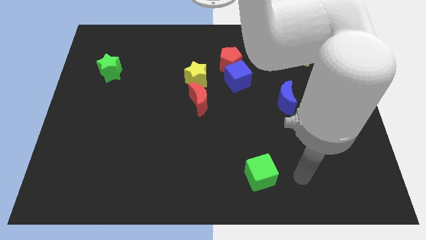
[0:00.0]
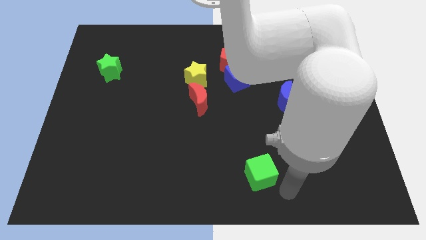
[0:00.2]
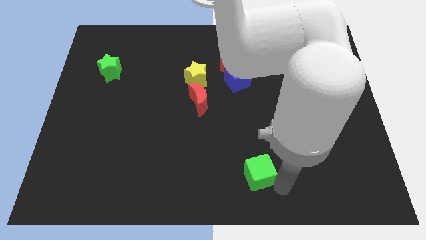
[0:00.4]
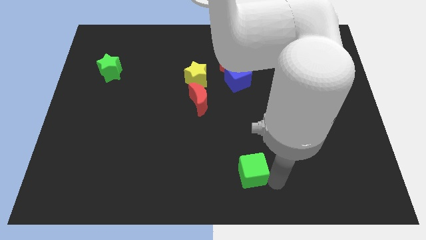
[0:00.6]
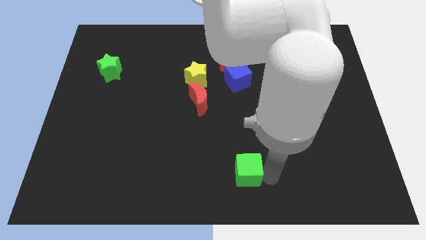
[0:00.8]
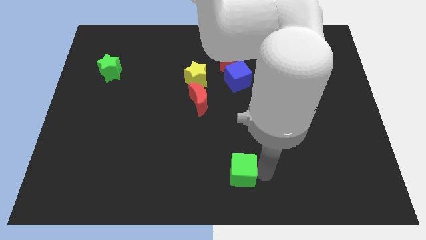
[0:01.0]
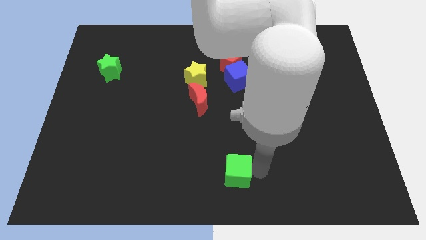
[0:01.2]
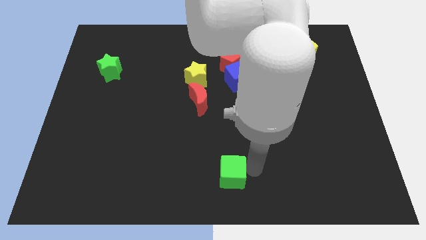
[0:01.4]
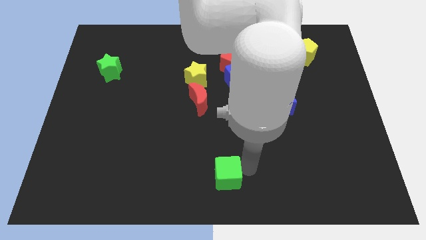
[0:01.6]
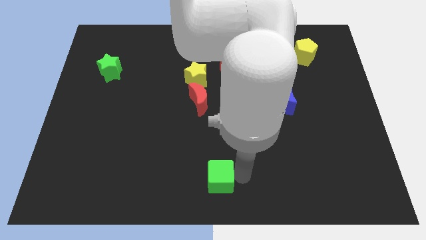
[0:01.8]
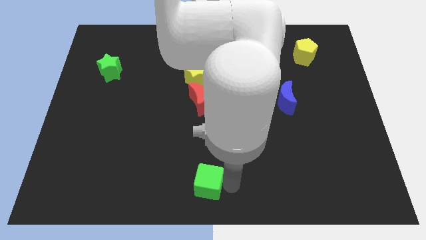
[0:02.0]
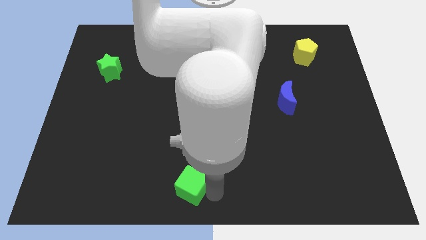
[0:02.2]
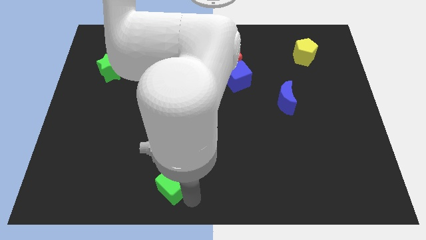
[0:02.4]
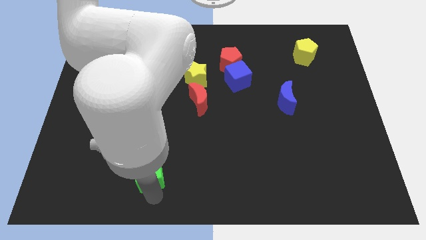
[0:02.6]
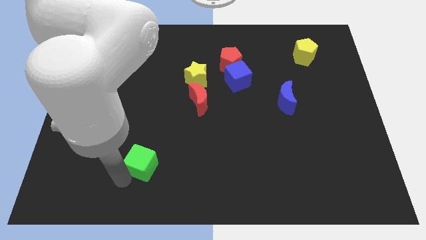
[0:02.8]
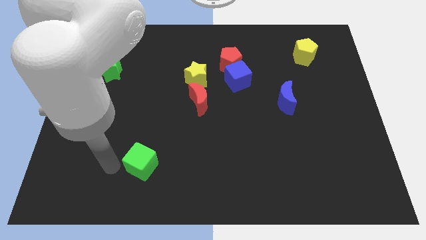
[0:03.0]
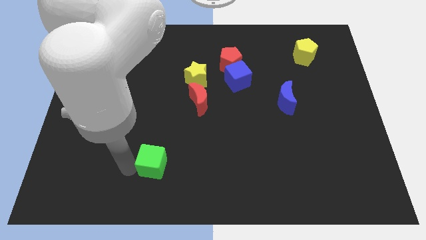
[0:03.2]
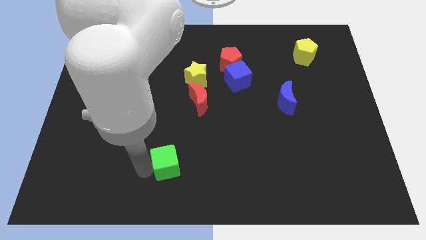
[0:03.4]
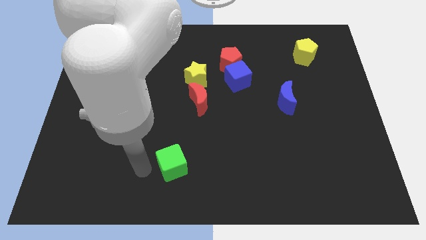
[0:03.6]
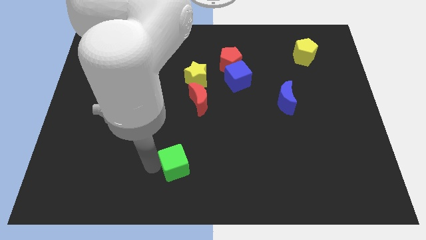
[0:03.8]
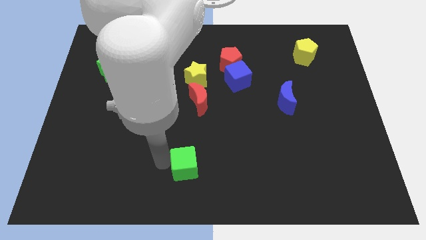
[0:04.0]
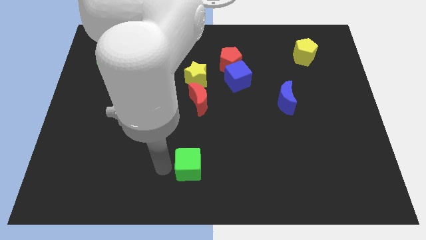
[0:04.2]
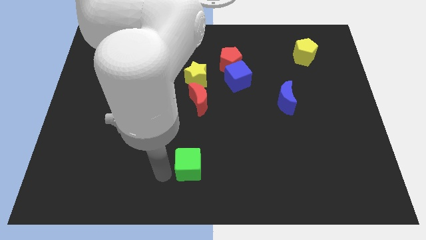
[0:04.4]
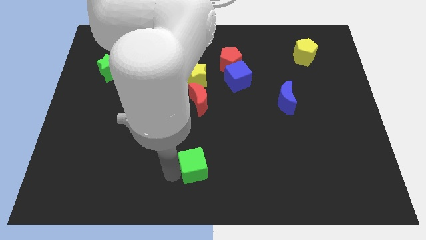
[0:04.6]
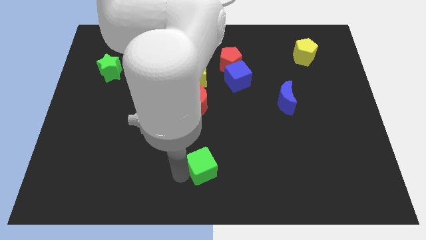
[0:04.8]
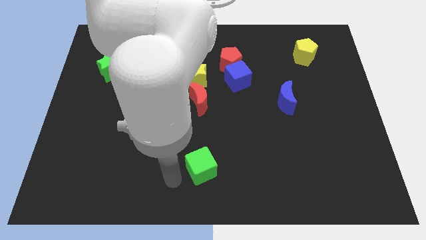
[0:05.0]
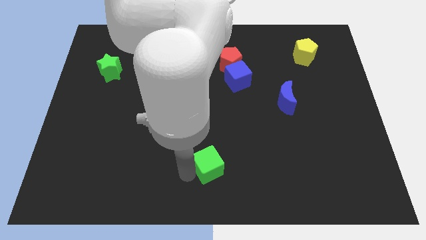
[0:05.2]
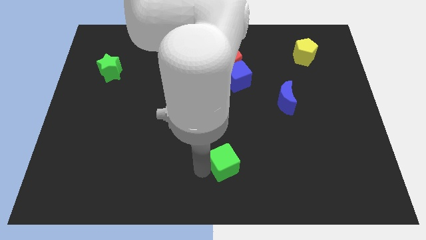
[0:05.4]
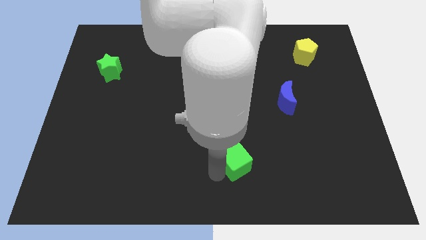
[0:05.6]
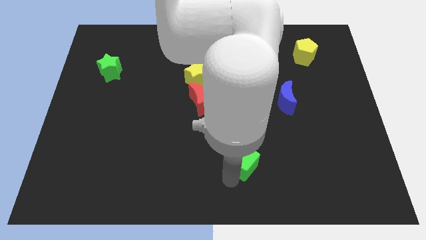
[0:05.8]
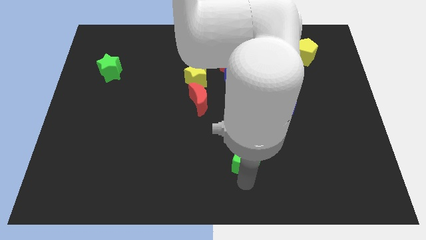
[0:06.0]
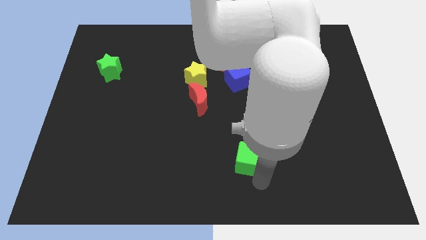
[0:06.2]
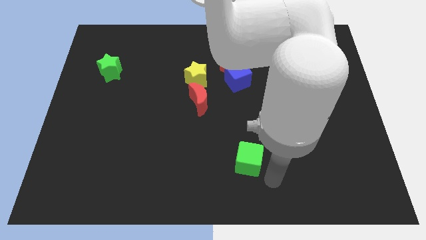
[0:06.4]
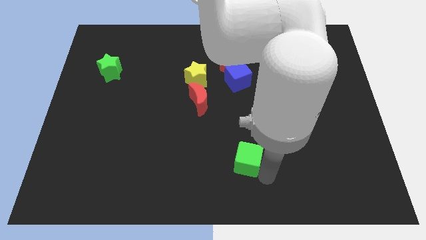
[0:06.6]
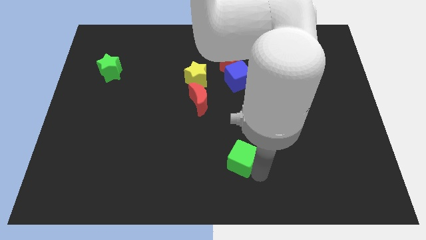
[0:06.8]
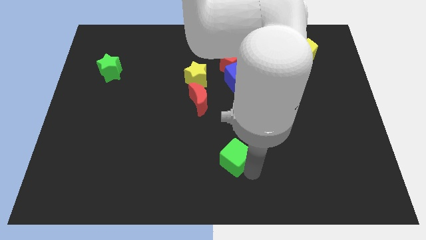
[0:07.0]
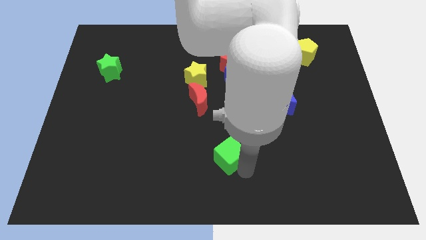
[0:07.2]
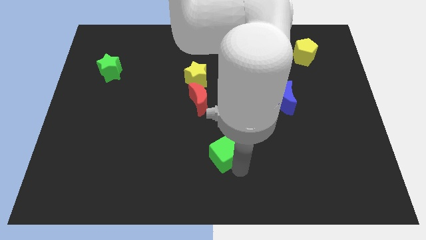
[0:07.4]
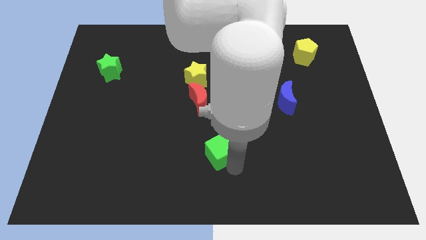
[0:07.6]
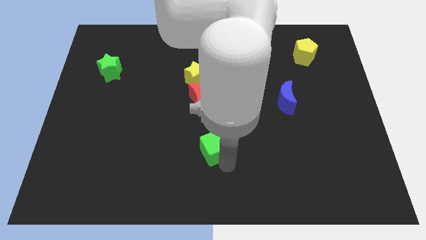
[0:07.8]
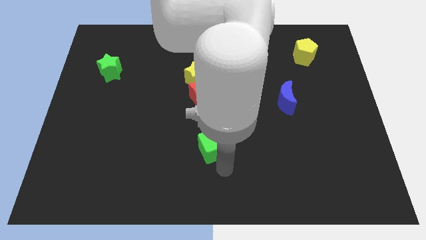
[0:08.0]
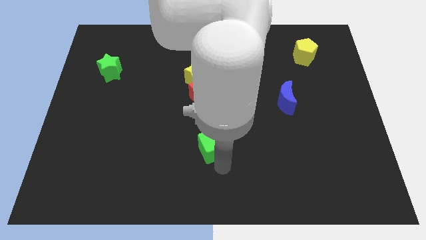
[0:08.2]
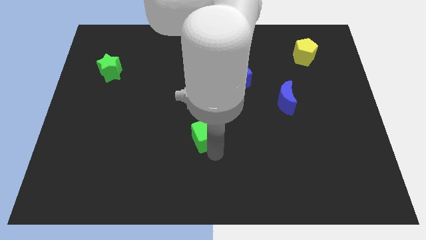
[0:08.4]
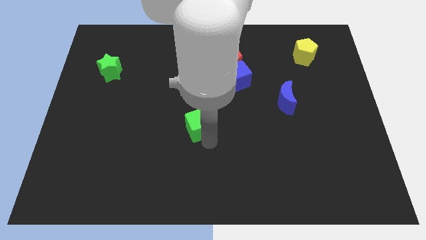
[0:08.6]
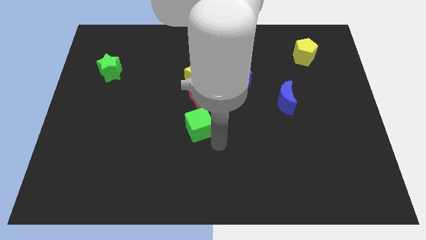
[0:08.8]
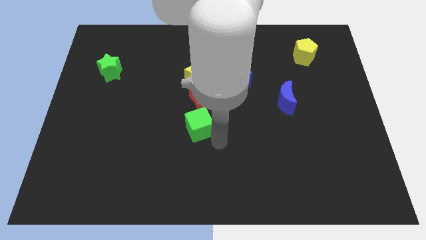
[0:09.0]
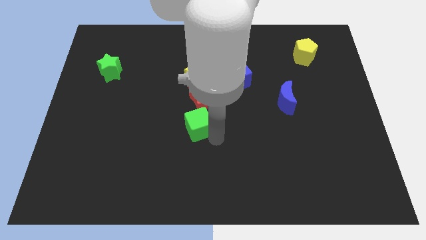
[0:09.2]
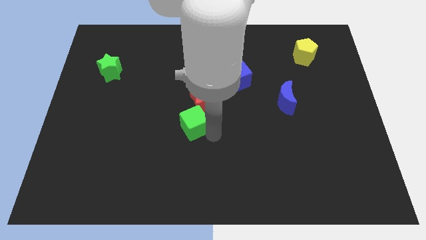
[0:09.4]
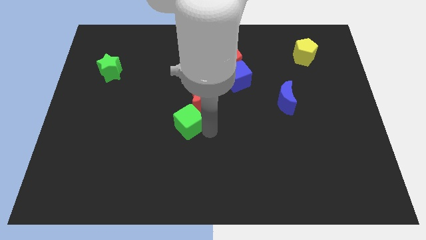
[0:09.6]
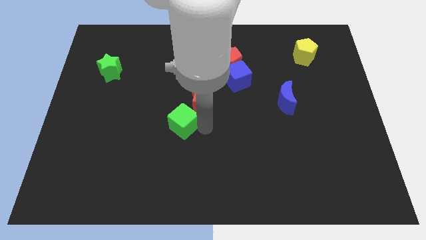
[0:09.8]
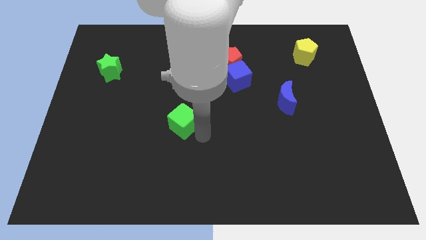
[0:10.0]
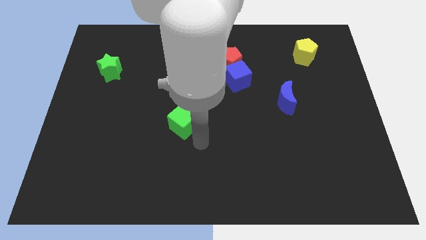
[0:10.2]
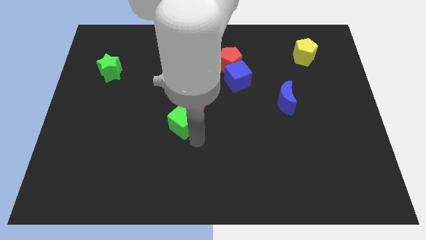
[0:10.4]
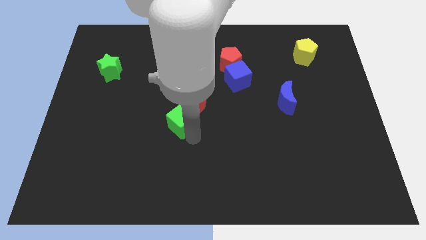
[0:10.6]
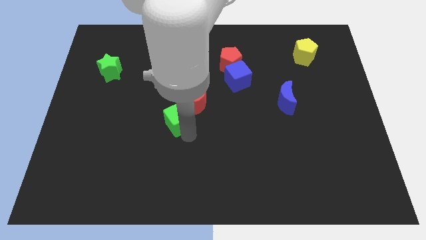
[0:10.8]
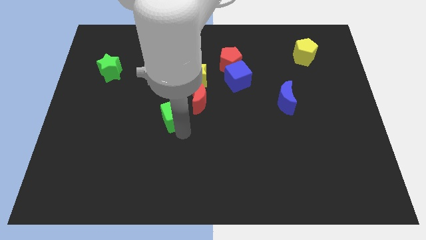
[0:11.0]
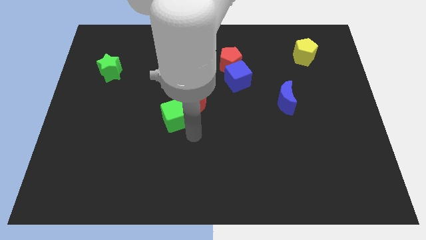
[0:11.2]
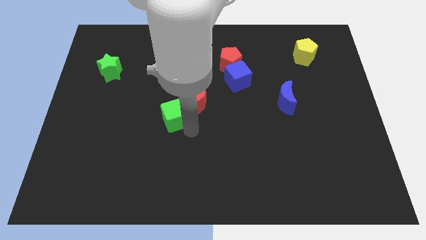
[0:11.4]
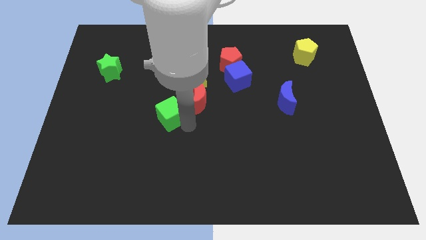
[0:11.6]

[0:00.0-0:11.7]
push the green cube just left of the red moon

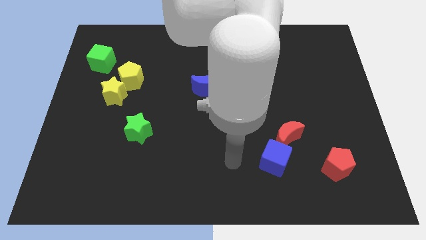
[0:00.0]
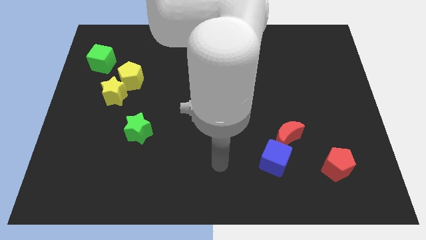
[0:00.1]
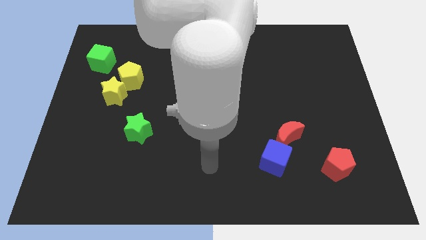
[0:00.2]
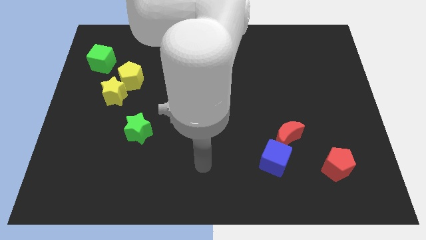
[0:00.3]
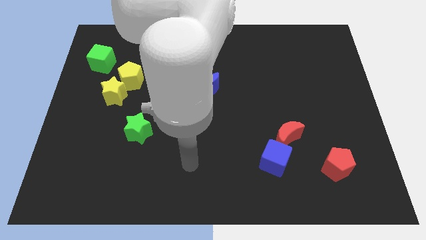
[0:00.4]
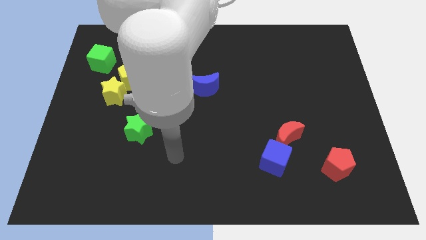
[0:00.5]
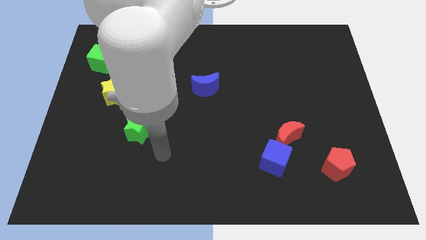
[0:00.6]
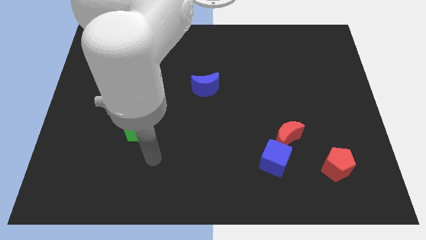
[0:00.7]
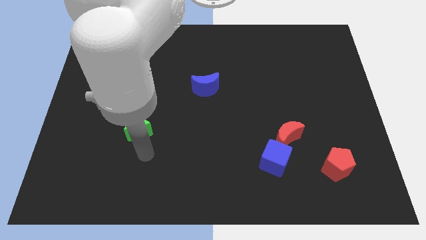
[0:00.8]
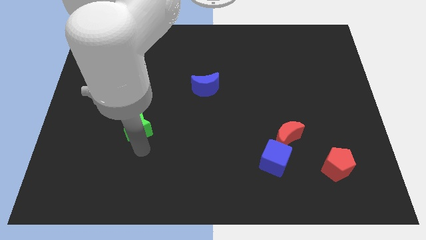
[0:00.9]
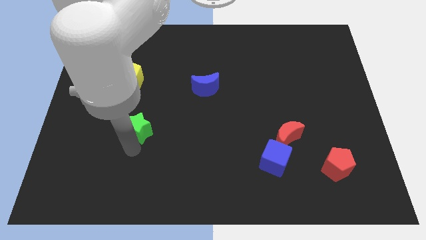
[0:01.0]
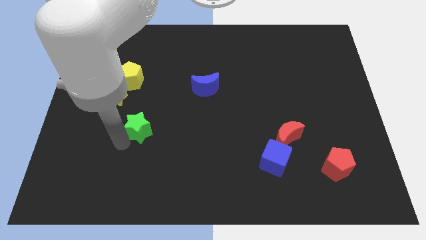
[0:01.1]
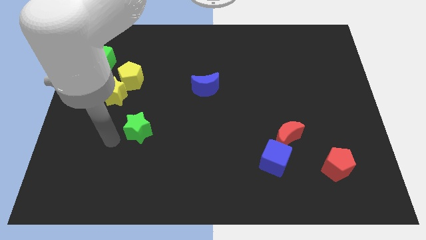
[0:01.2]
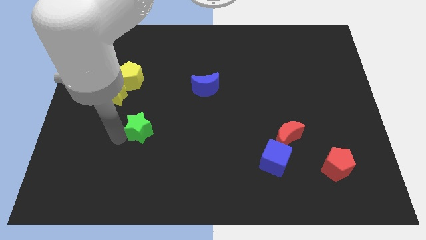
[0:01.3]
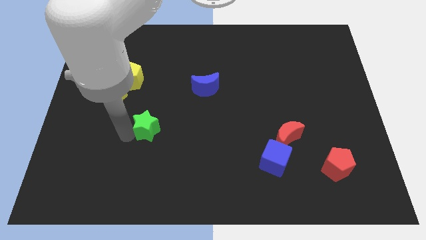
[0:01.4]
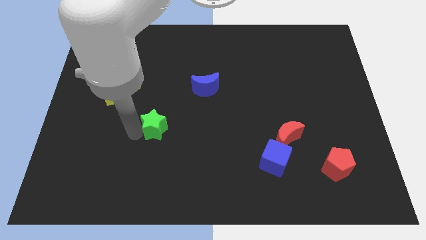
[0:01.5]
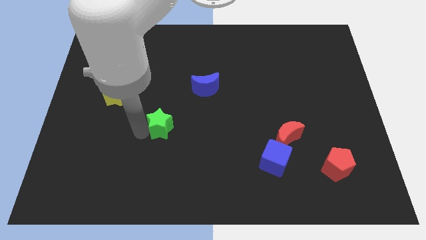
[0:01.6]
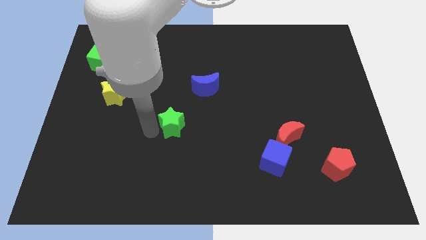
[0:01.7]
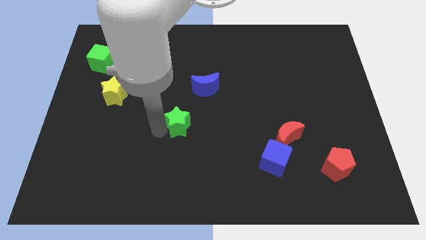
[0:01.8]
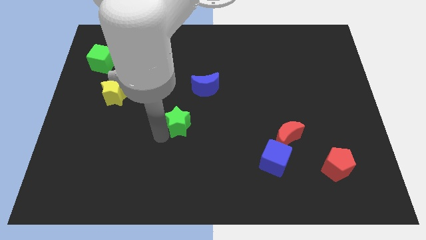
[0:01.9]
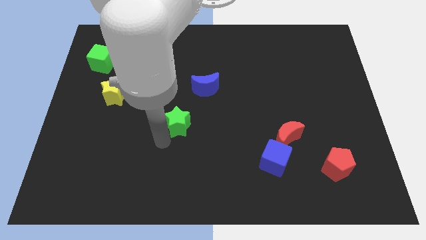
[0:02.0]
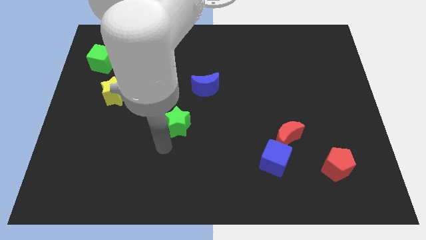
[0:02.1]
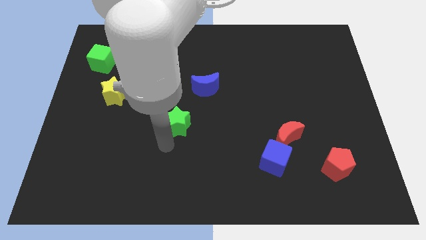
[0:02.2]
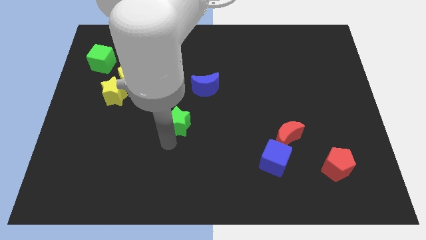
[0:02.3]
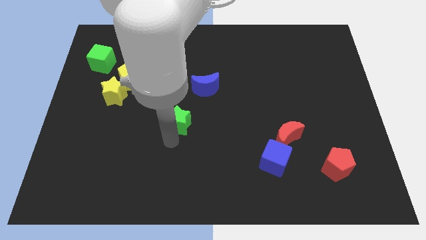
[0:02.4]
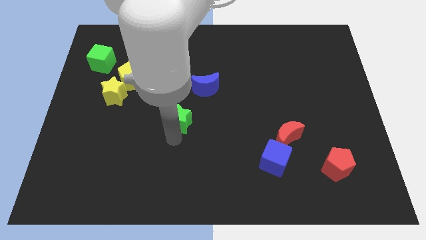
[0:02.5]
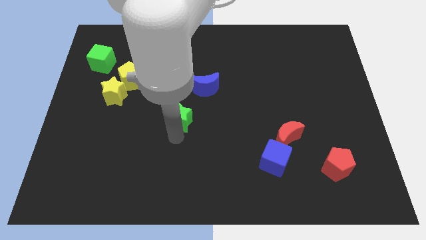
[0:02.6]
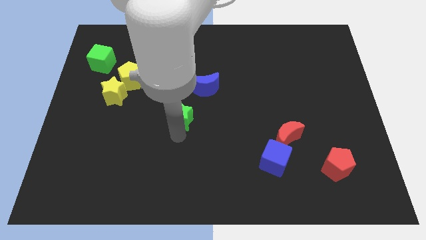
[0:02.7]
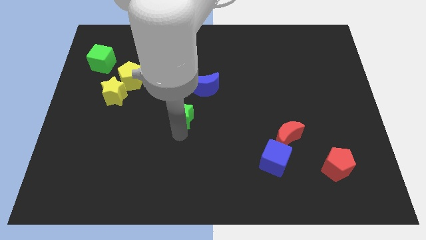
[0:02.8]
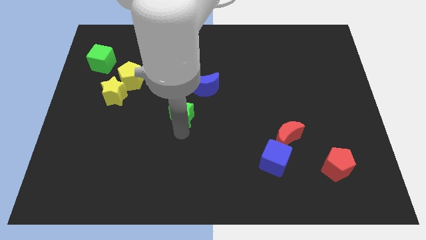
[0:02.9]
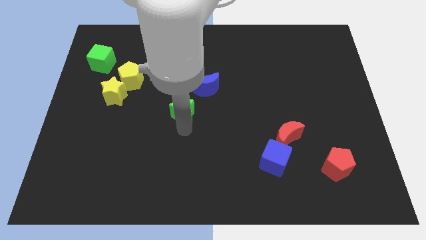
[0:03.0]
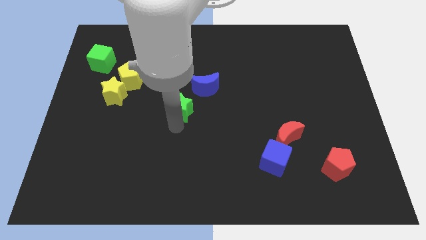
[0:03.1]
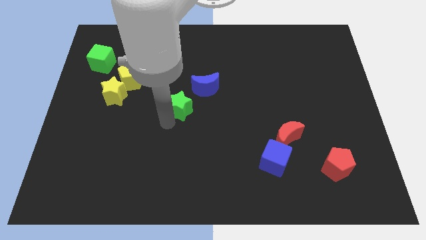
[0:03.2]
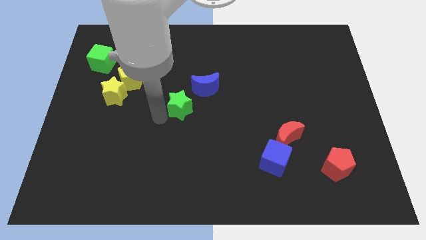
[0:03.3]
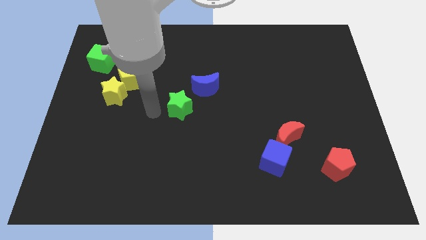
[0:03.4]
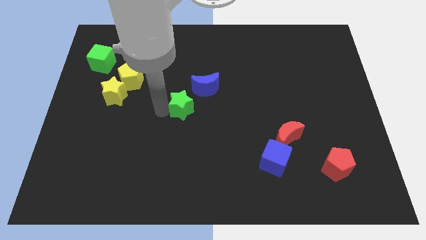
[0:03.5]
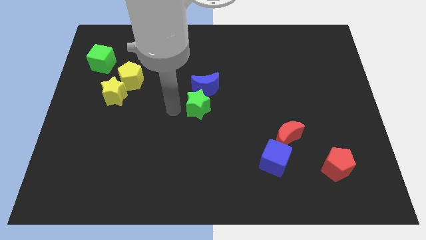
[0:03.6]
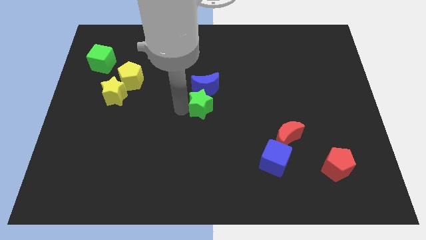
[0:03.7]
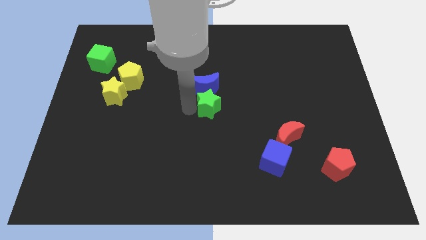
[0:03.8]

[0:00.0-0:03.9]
put the green star diagonally down and to the right of the blue moon
